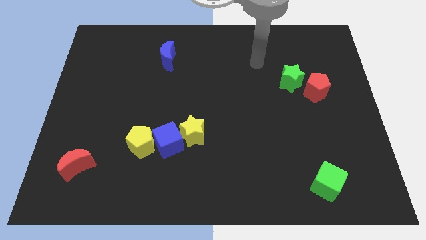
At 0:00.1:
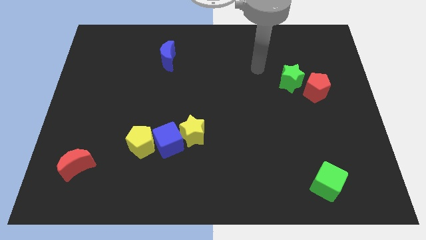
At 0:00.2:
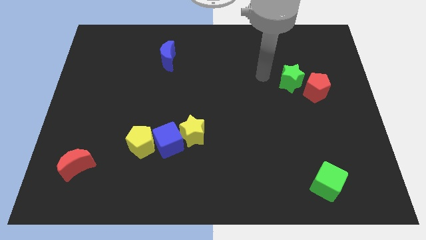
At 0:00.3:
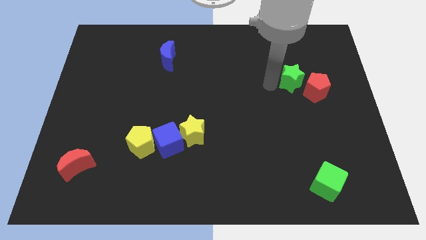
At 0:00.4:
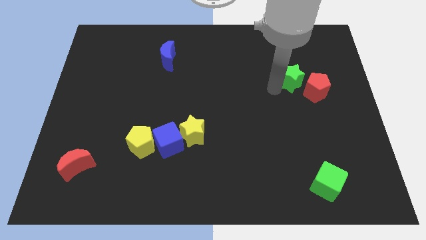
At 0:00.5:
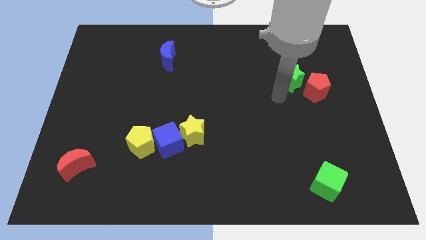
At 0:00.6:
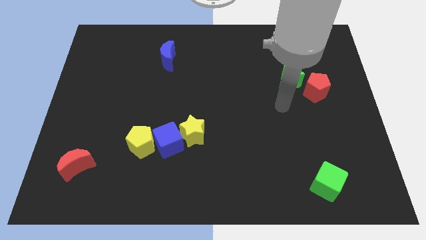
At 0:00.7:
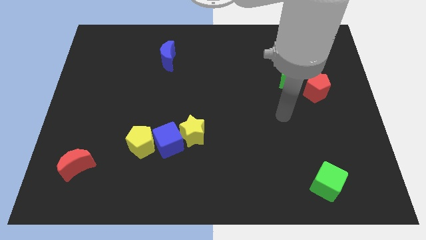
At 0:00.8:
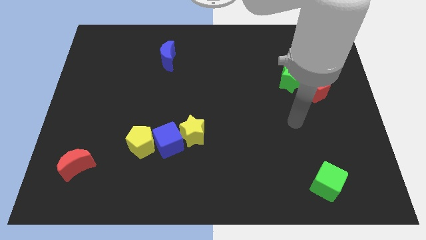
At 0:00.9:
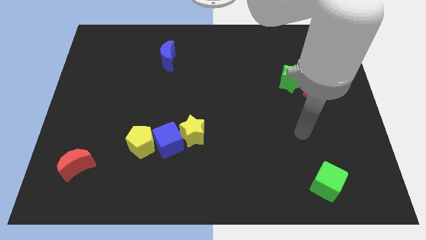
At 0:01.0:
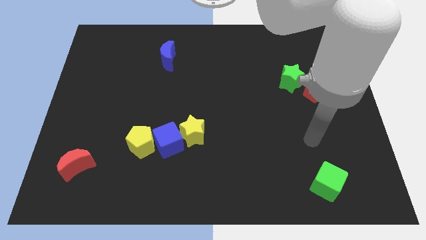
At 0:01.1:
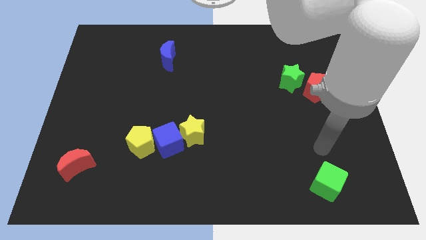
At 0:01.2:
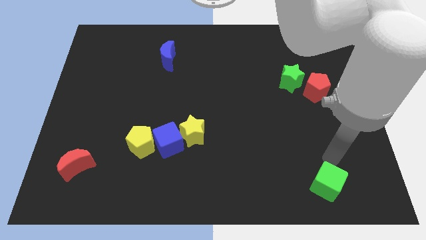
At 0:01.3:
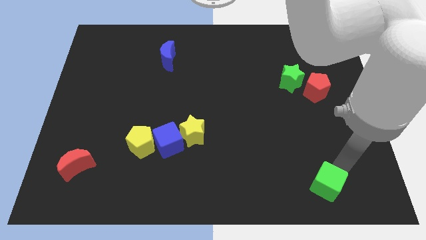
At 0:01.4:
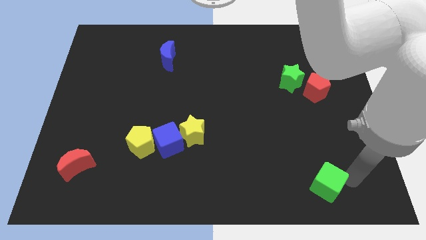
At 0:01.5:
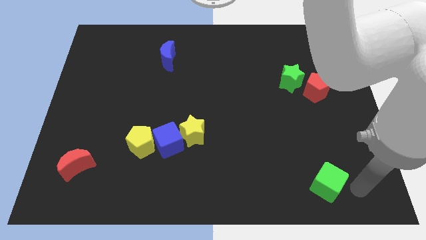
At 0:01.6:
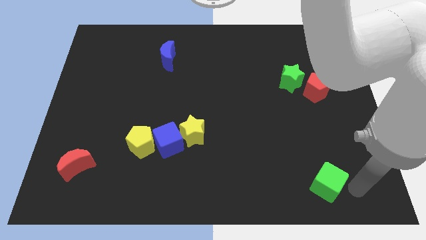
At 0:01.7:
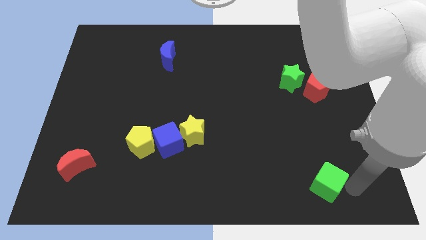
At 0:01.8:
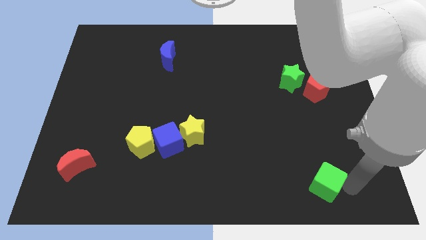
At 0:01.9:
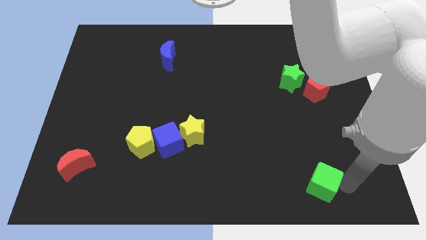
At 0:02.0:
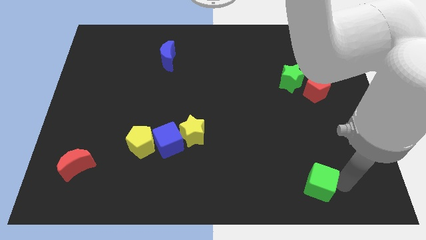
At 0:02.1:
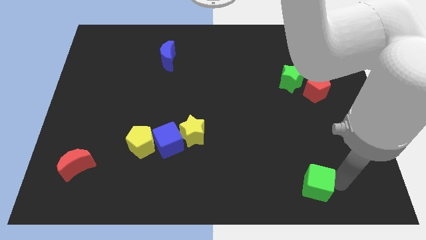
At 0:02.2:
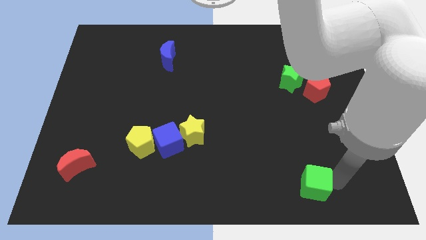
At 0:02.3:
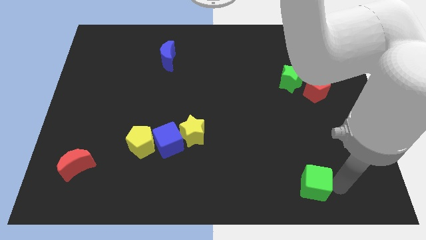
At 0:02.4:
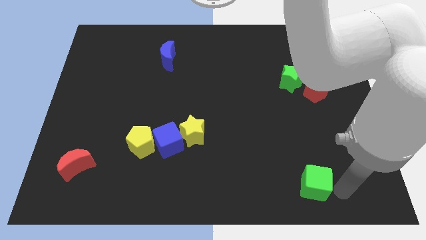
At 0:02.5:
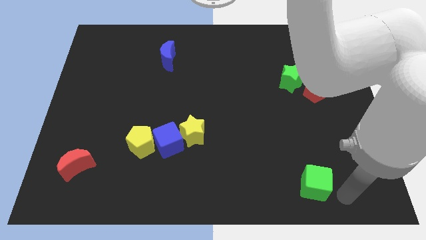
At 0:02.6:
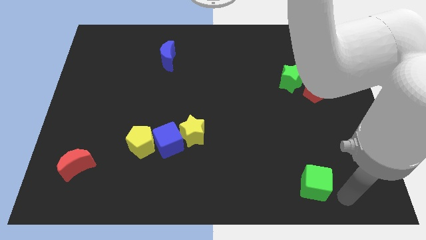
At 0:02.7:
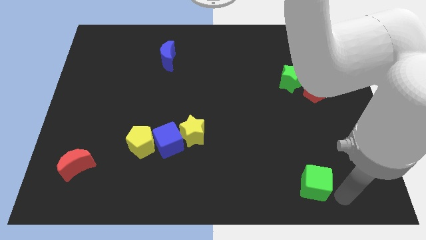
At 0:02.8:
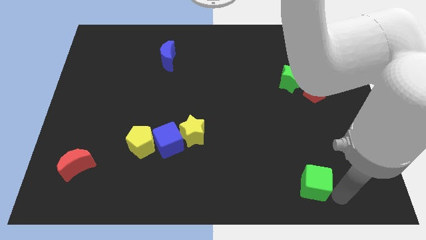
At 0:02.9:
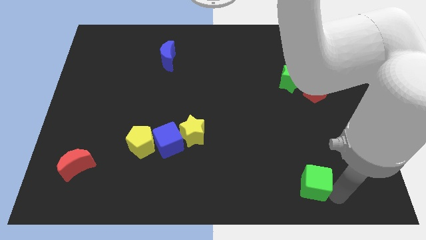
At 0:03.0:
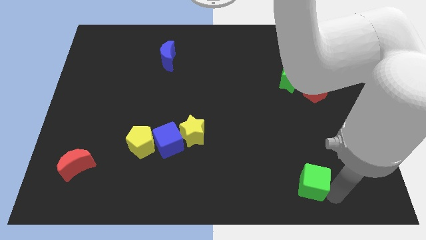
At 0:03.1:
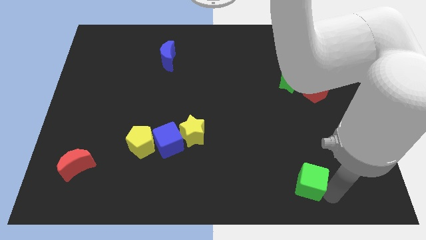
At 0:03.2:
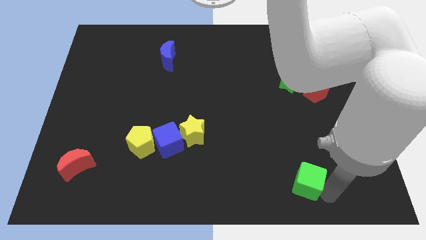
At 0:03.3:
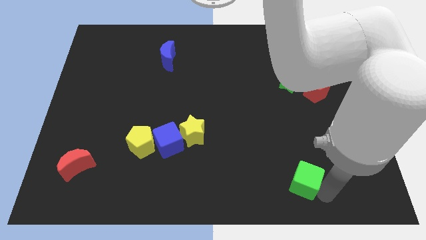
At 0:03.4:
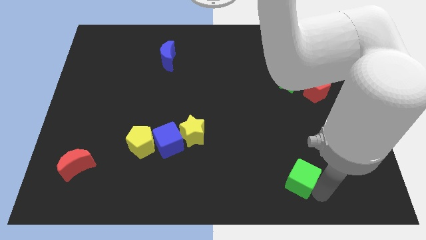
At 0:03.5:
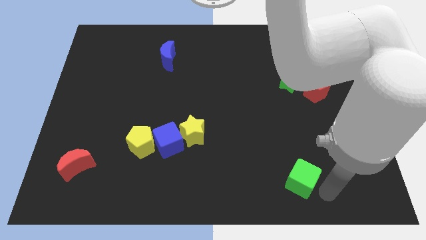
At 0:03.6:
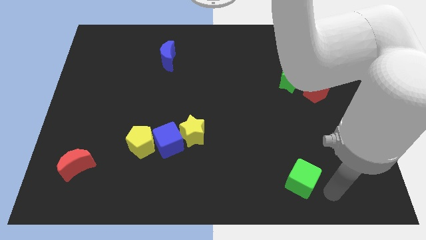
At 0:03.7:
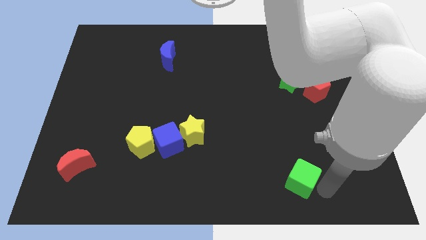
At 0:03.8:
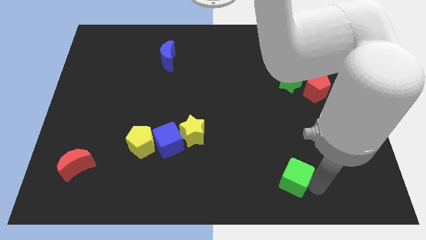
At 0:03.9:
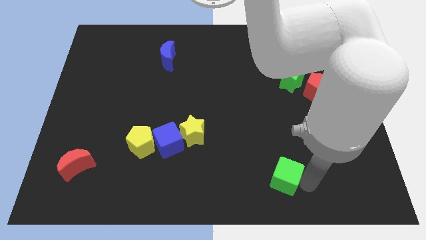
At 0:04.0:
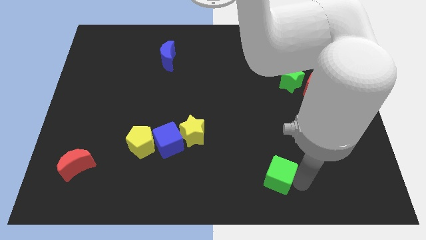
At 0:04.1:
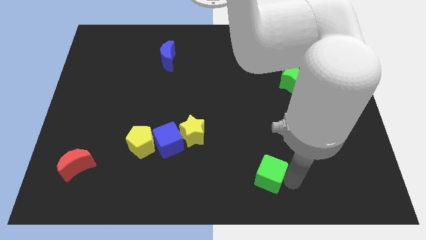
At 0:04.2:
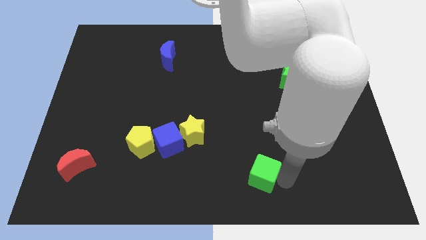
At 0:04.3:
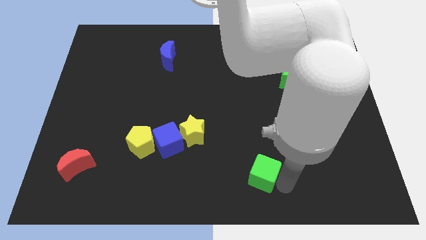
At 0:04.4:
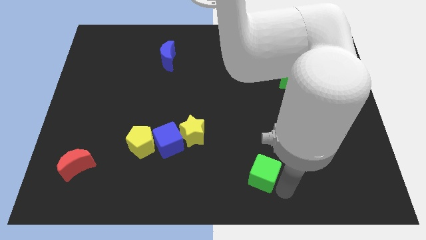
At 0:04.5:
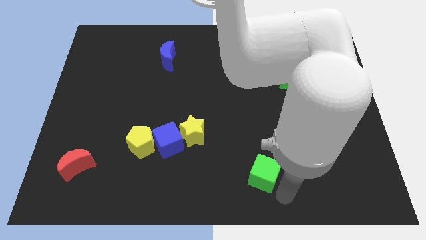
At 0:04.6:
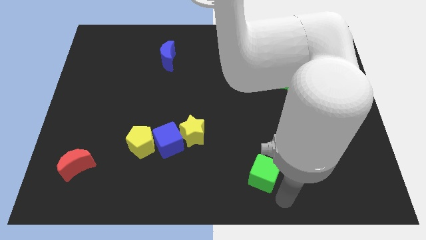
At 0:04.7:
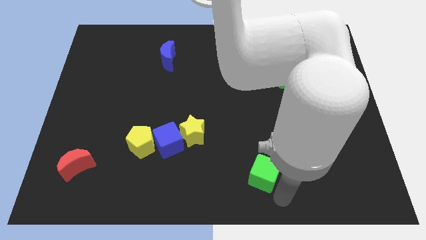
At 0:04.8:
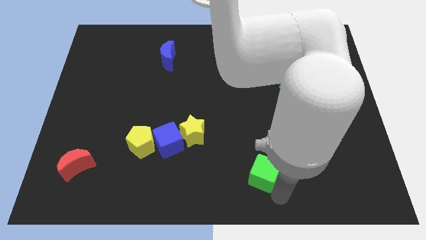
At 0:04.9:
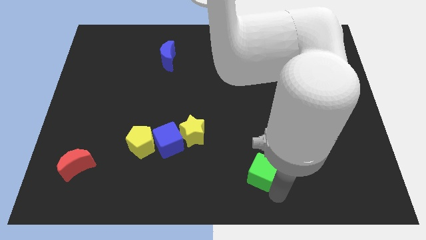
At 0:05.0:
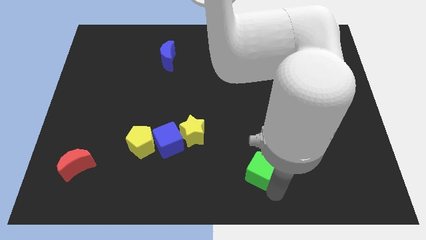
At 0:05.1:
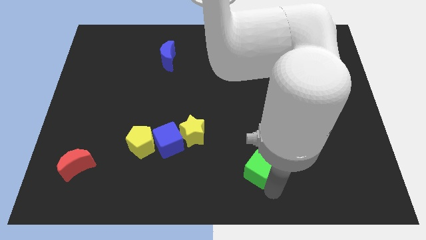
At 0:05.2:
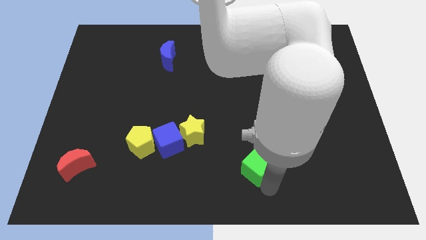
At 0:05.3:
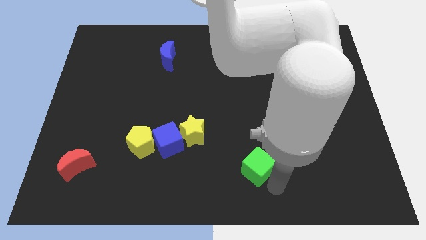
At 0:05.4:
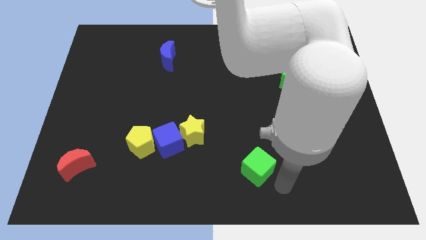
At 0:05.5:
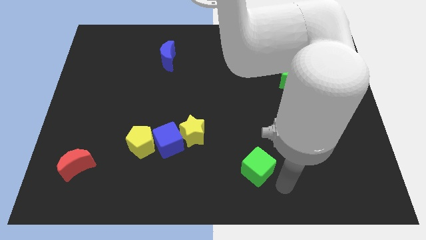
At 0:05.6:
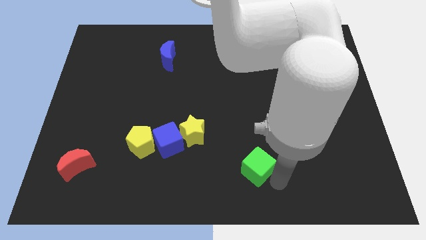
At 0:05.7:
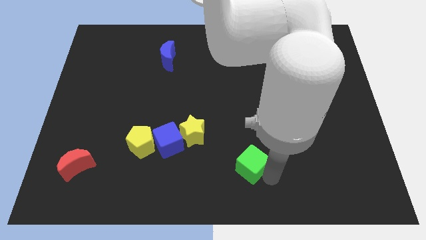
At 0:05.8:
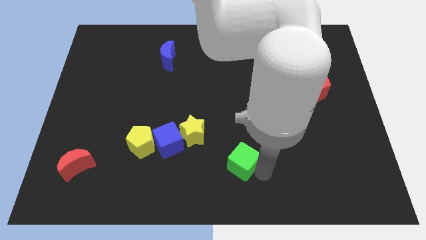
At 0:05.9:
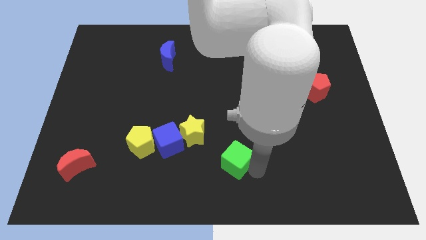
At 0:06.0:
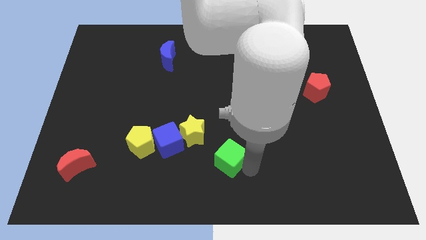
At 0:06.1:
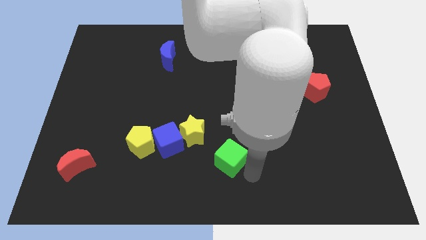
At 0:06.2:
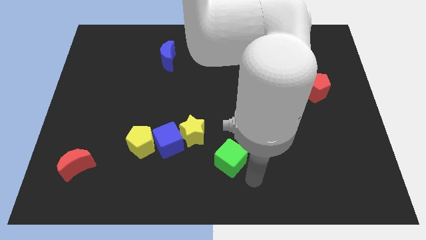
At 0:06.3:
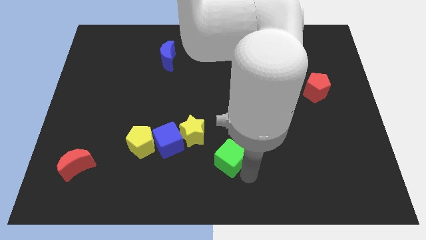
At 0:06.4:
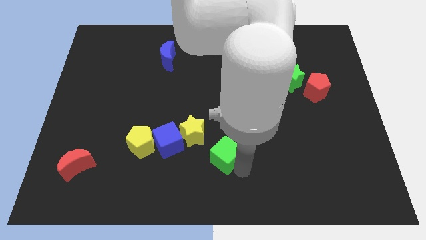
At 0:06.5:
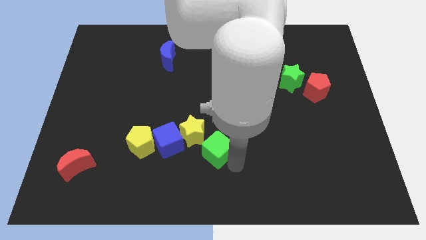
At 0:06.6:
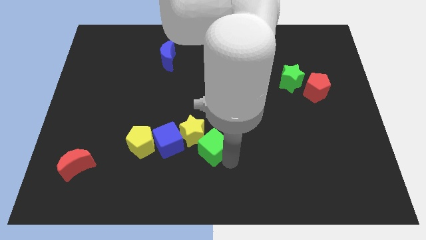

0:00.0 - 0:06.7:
move the green cube close to the yellow star

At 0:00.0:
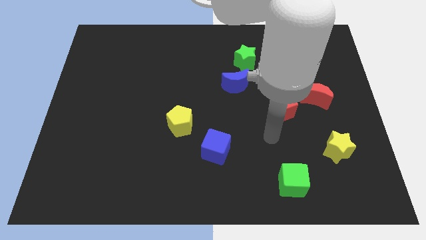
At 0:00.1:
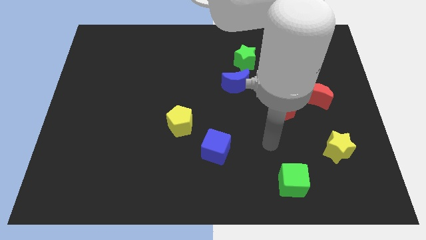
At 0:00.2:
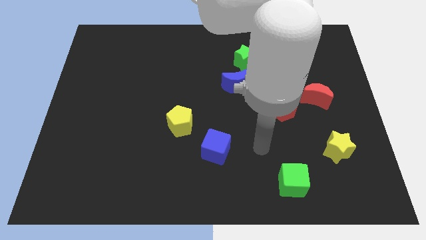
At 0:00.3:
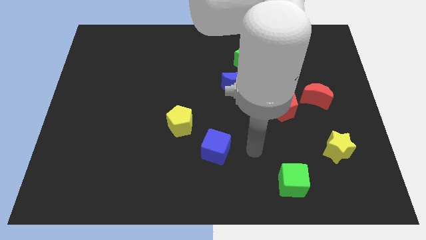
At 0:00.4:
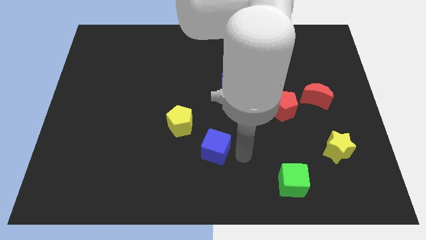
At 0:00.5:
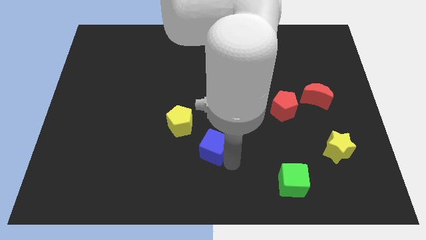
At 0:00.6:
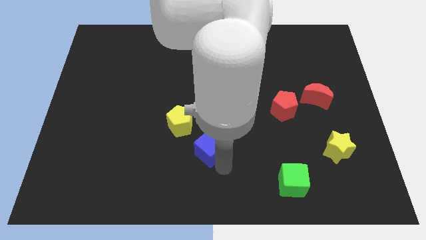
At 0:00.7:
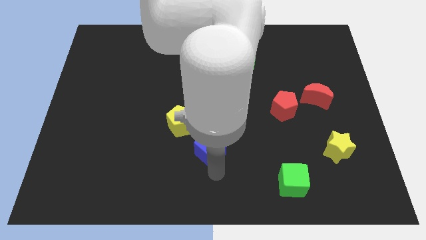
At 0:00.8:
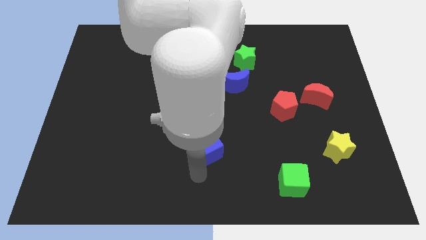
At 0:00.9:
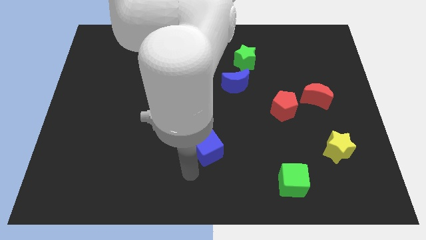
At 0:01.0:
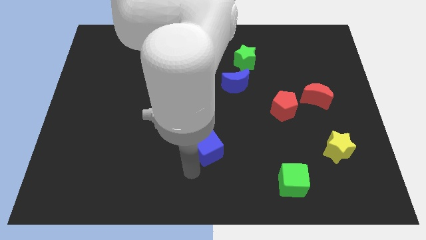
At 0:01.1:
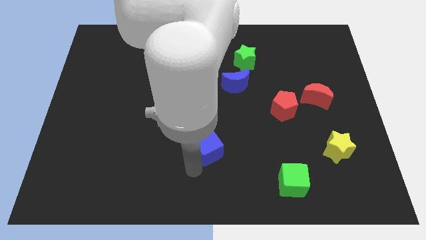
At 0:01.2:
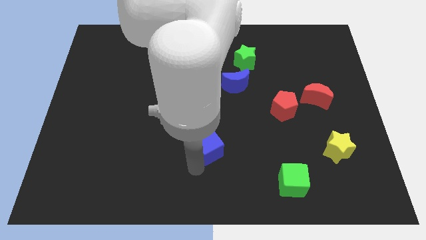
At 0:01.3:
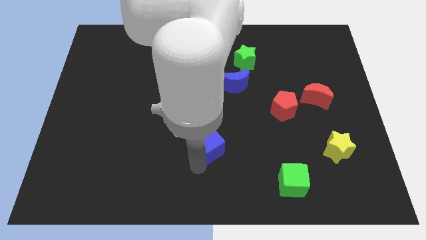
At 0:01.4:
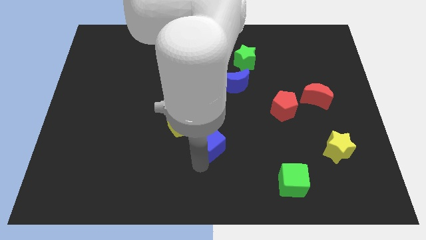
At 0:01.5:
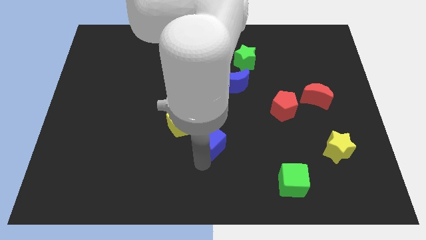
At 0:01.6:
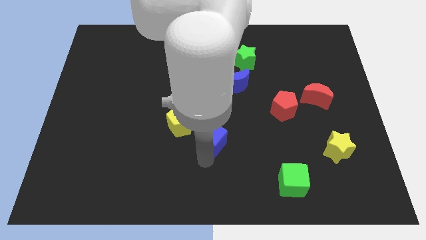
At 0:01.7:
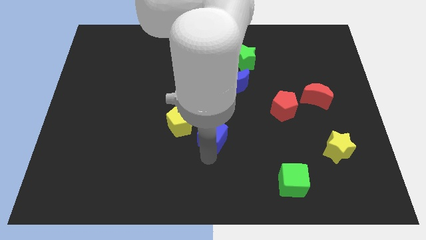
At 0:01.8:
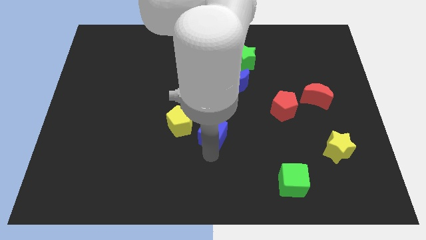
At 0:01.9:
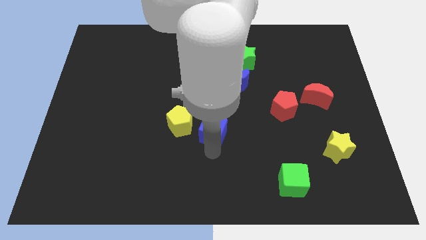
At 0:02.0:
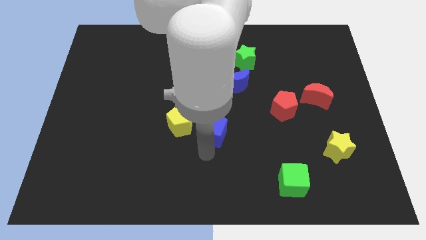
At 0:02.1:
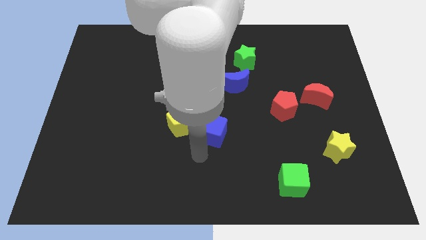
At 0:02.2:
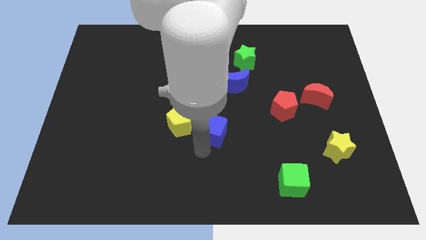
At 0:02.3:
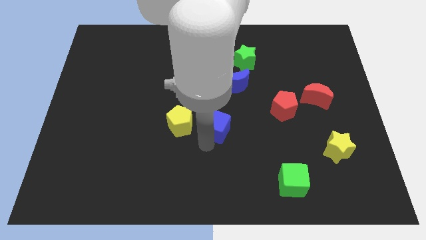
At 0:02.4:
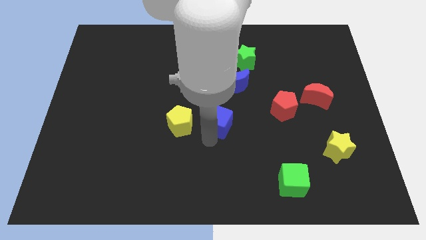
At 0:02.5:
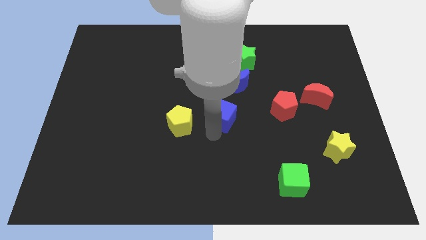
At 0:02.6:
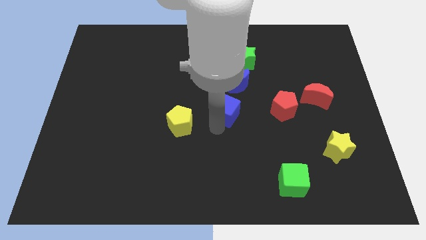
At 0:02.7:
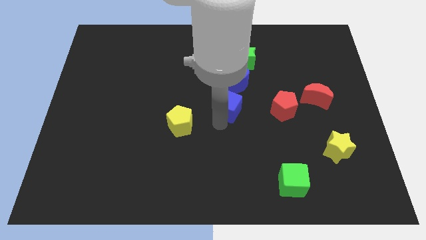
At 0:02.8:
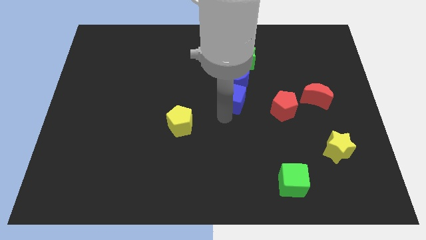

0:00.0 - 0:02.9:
move the blue cube to the blue moon
